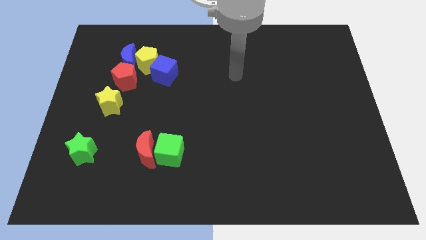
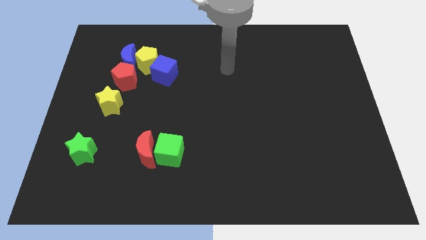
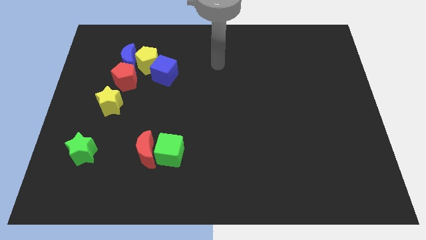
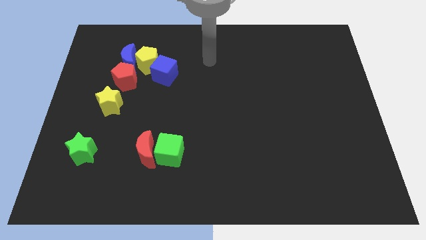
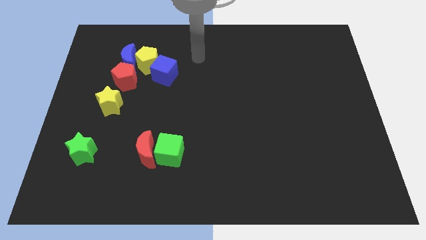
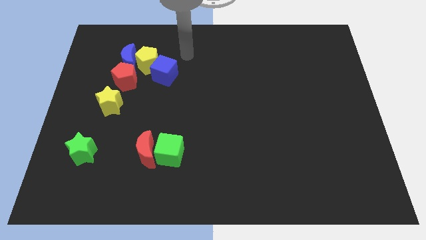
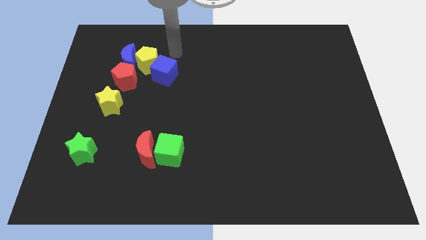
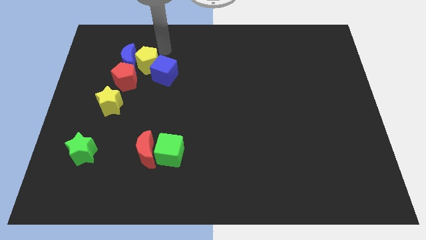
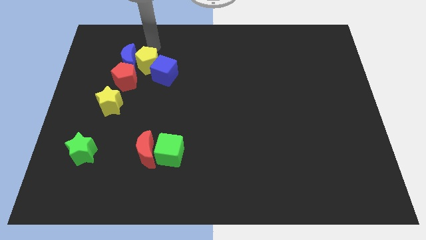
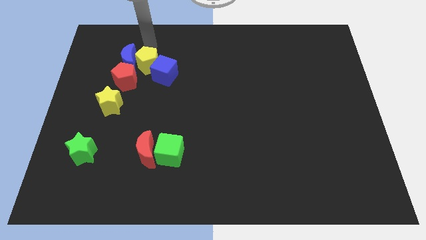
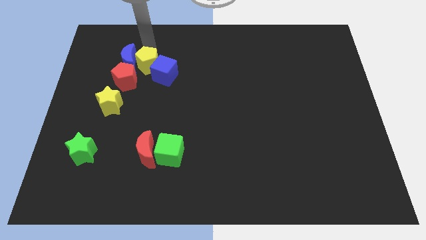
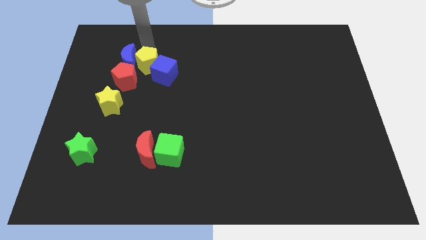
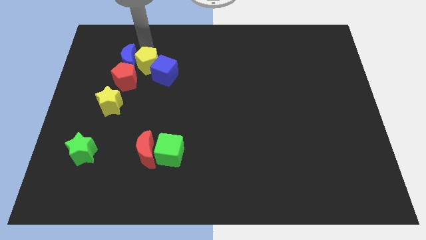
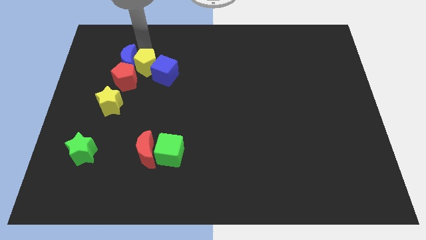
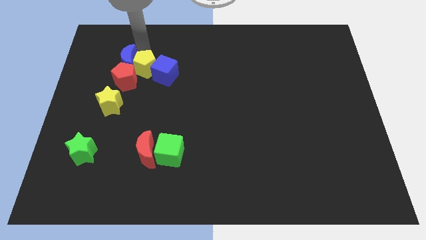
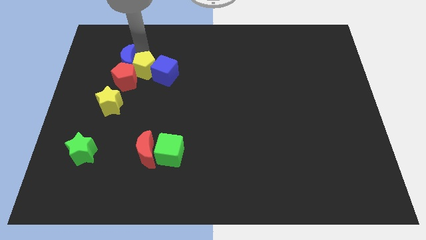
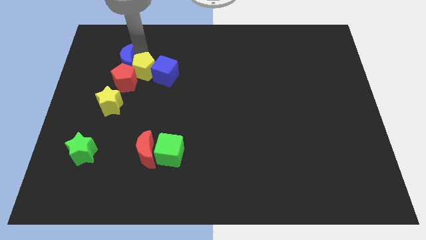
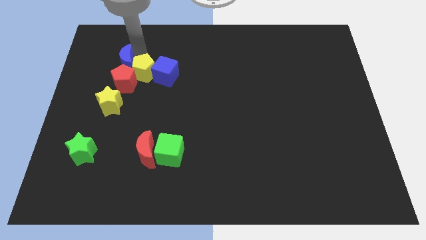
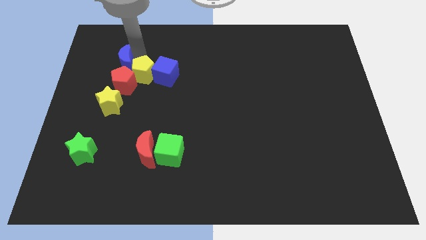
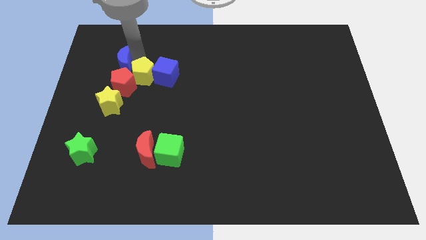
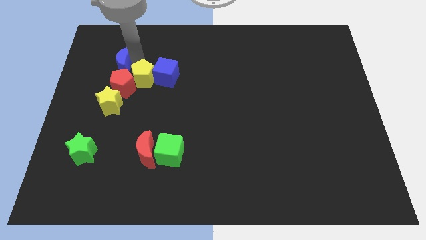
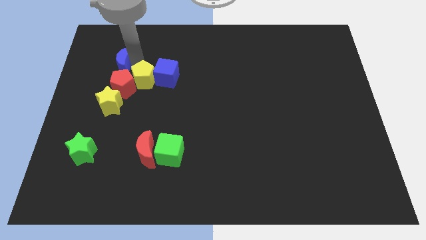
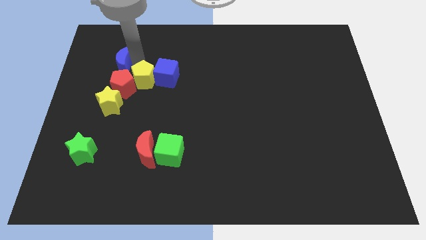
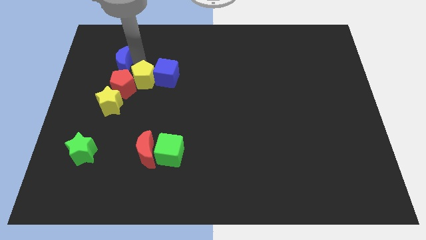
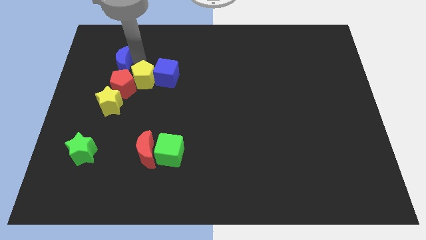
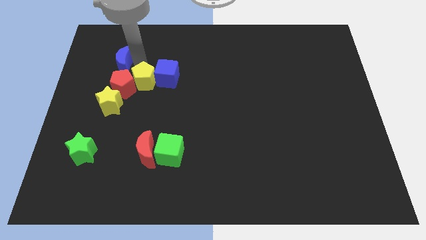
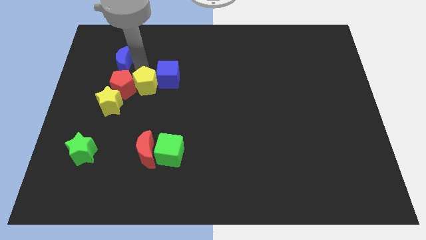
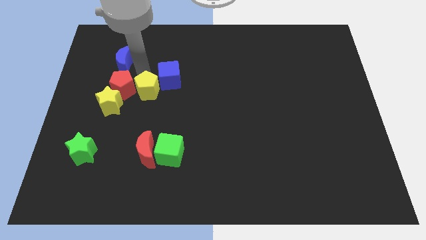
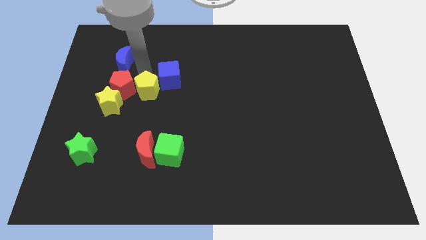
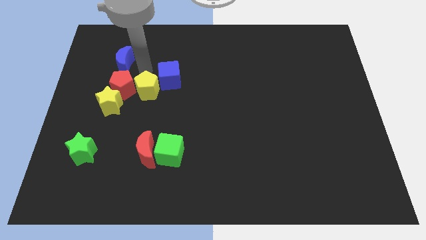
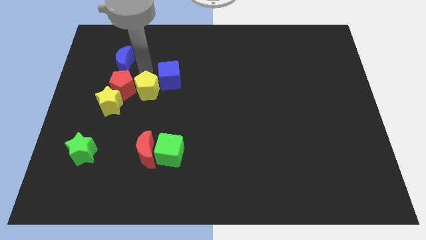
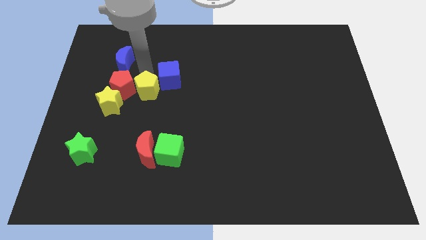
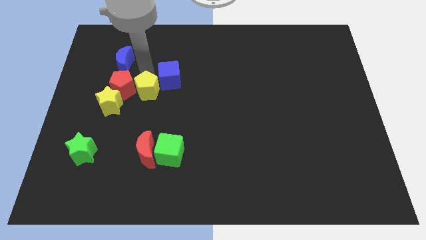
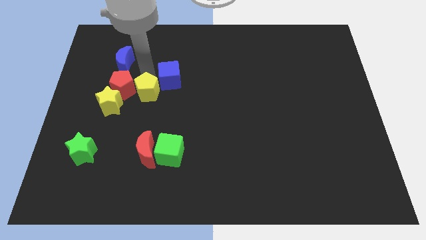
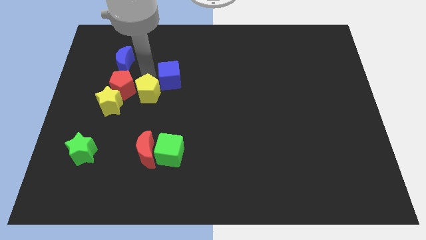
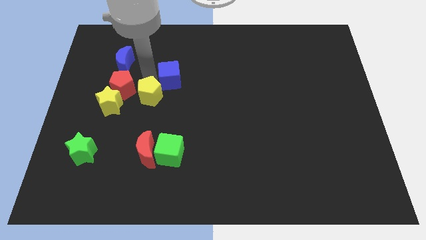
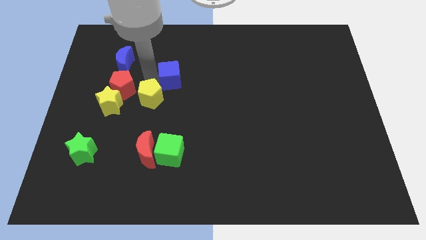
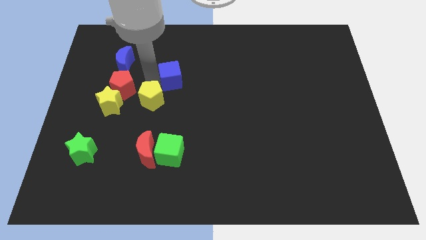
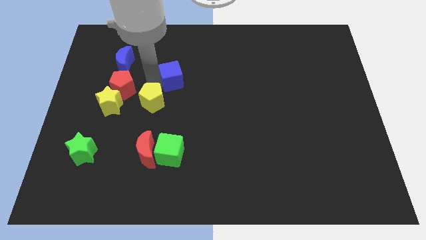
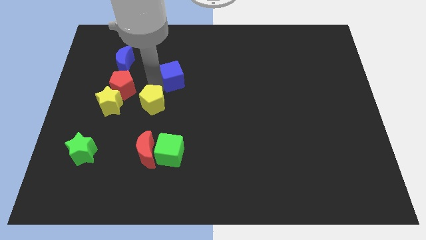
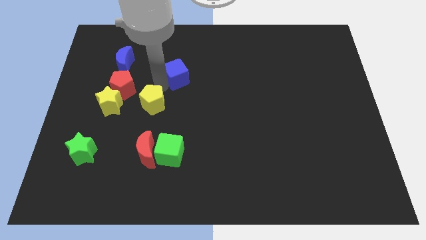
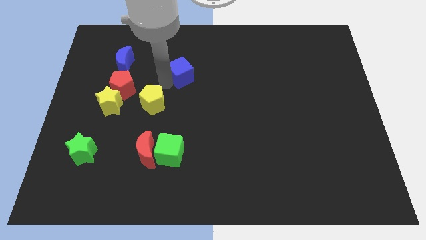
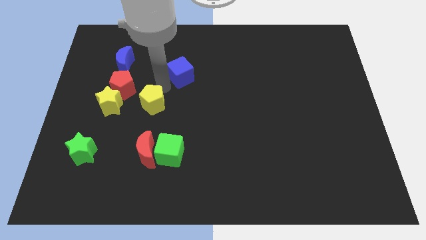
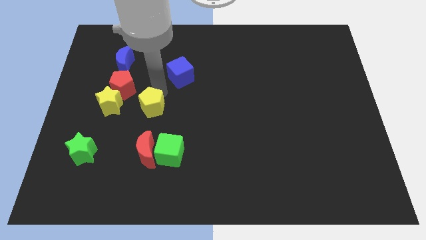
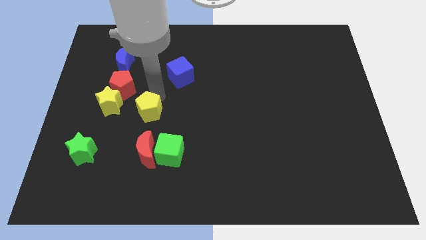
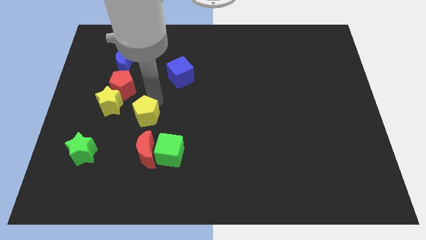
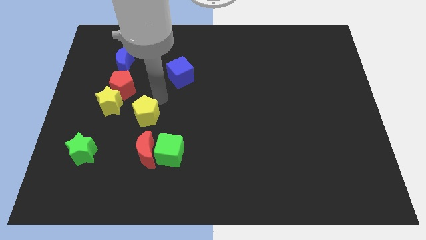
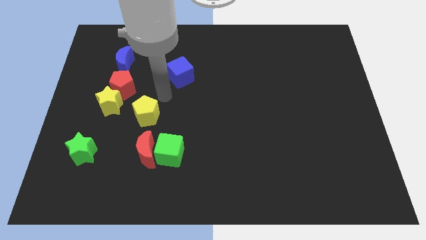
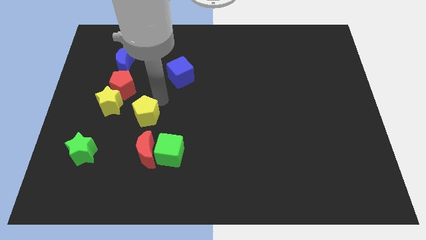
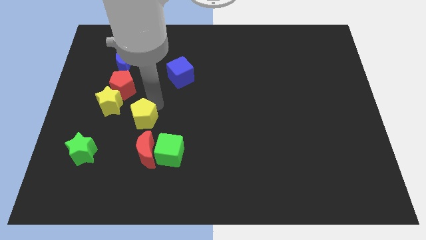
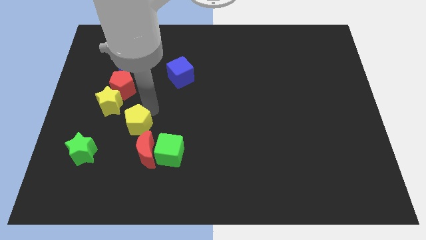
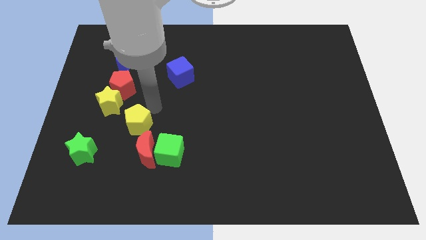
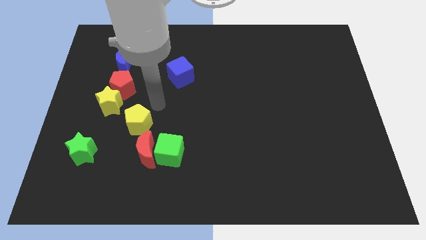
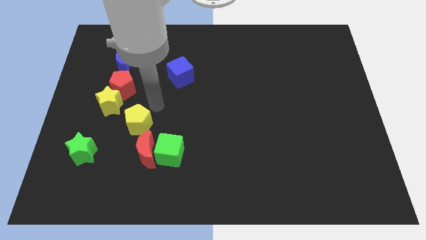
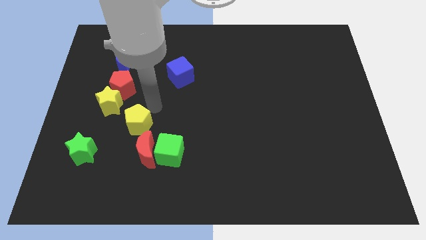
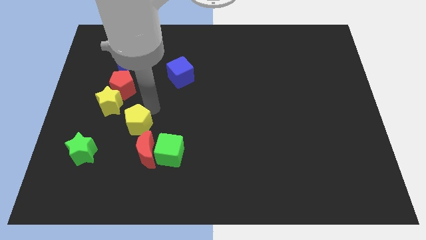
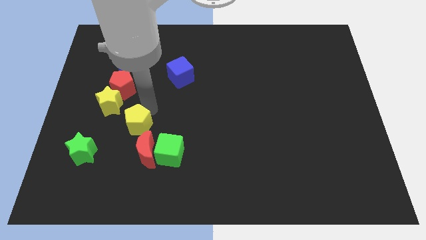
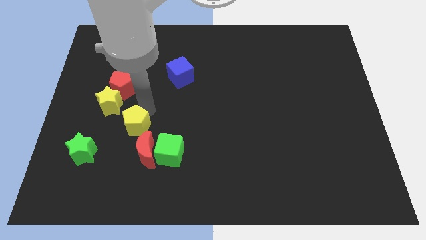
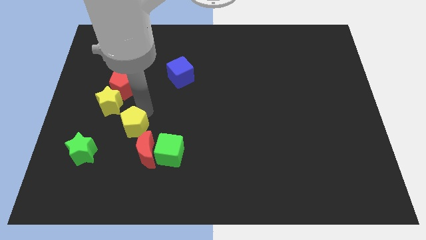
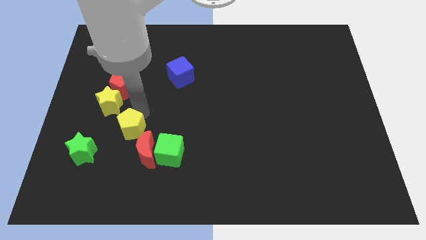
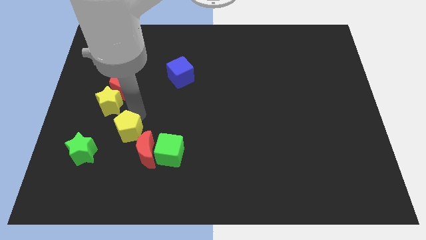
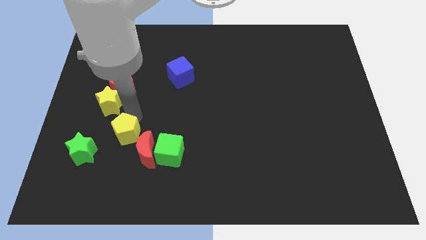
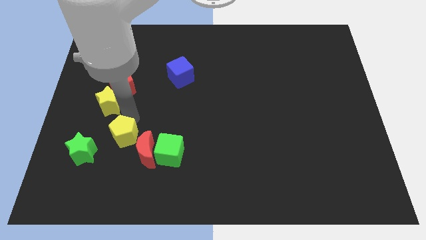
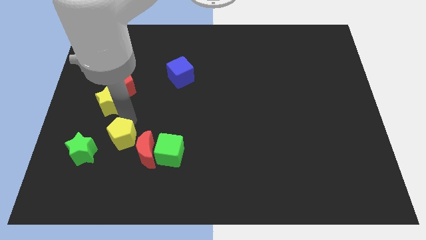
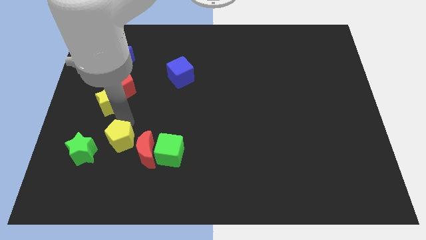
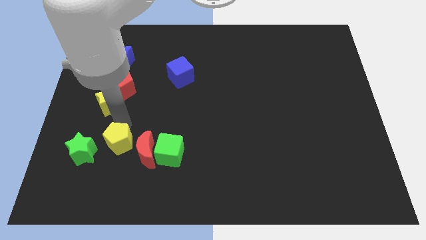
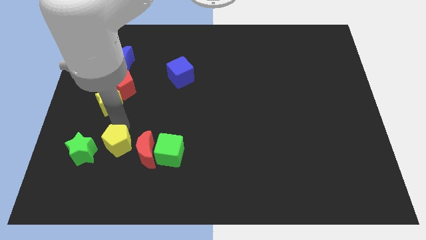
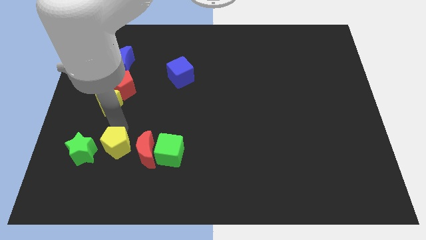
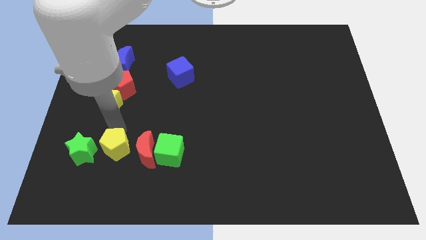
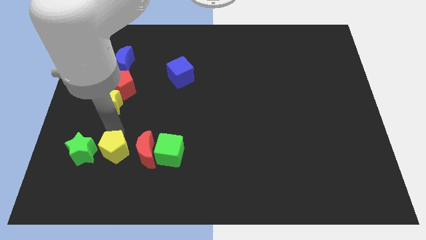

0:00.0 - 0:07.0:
move the yellow pentagon to the bottom right side of the green star
